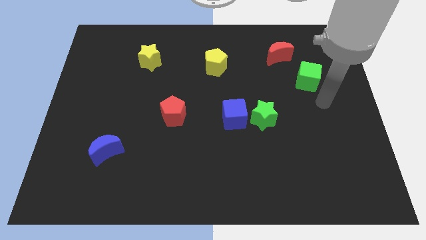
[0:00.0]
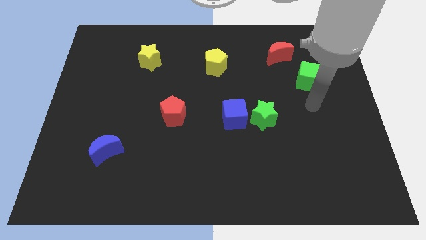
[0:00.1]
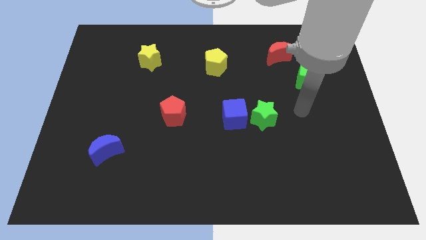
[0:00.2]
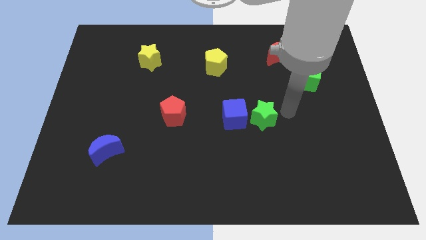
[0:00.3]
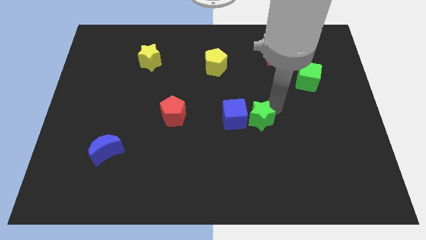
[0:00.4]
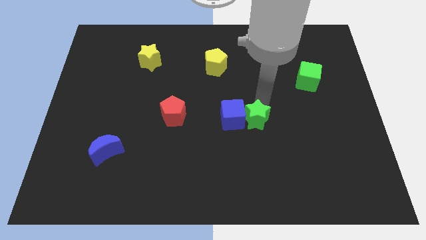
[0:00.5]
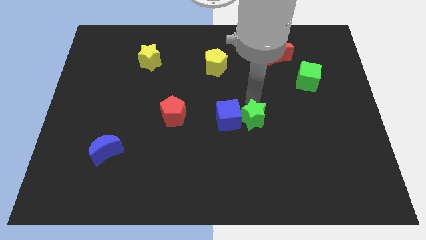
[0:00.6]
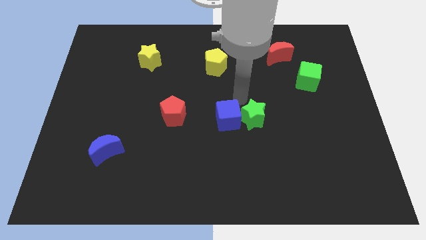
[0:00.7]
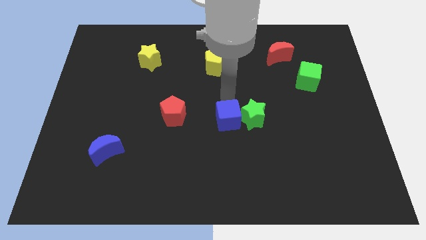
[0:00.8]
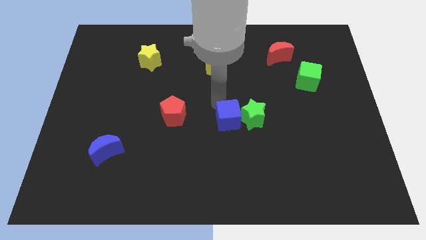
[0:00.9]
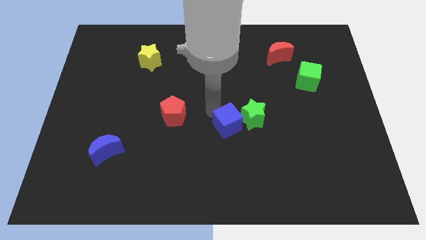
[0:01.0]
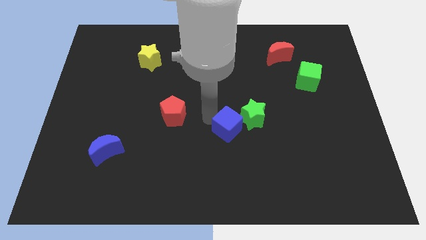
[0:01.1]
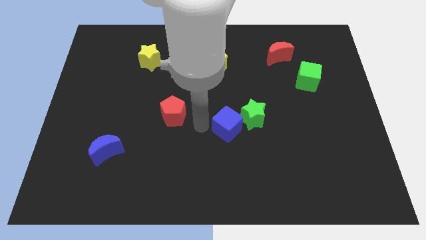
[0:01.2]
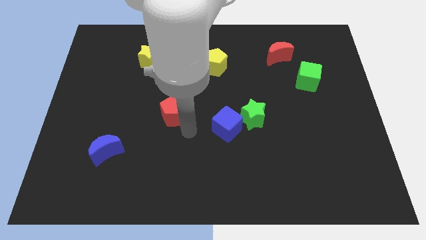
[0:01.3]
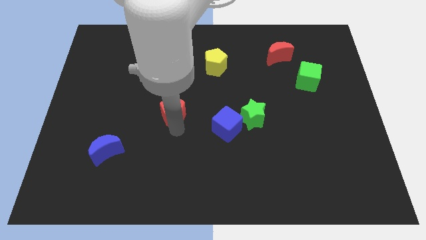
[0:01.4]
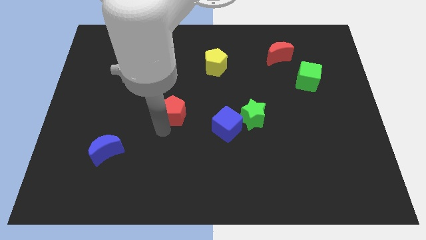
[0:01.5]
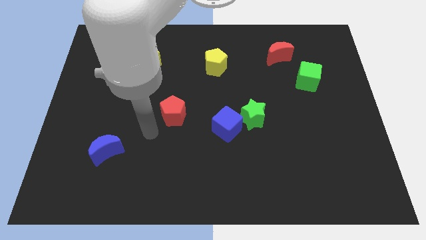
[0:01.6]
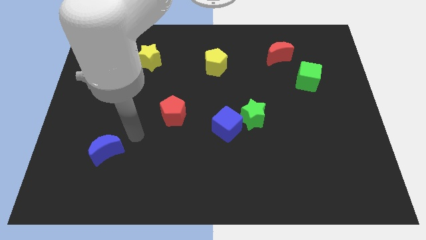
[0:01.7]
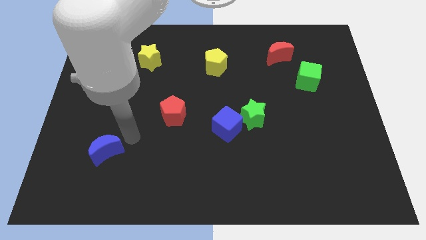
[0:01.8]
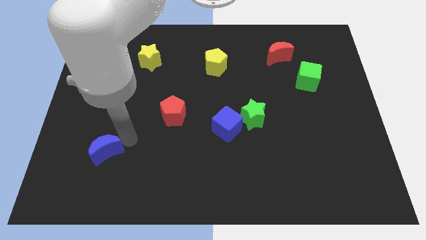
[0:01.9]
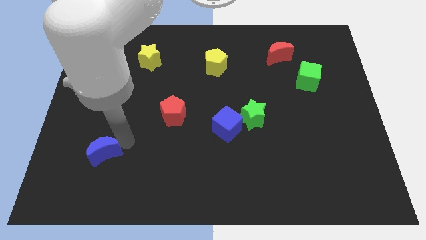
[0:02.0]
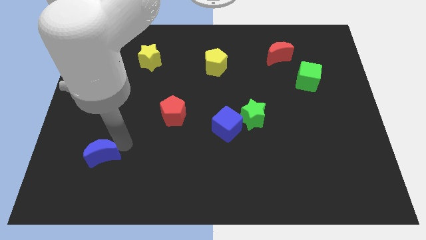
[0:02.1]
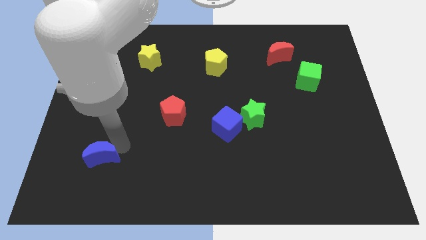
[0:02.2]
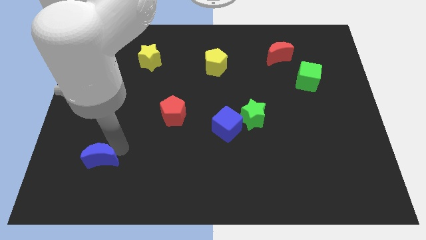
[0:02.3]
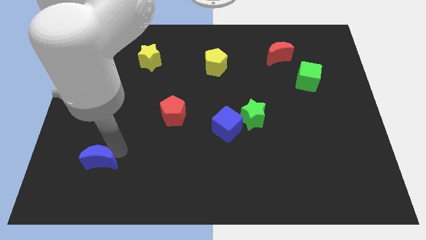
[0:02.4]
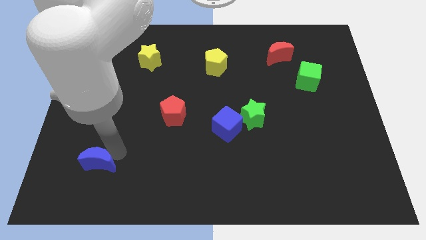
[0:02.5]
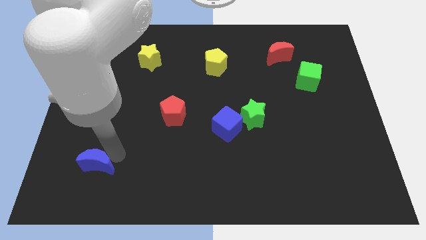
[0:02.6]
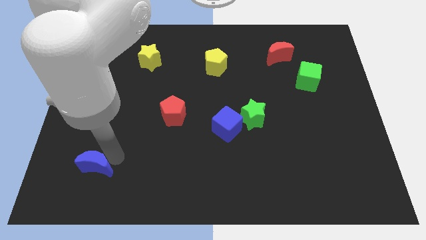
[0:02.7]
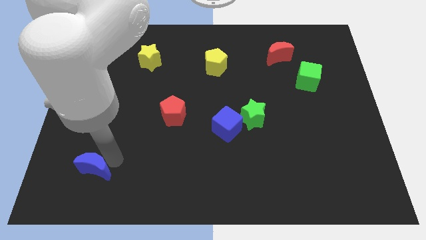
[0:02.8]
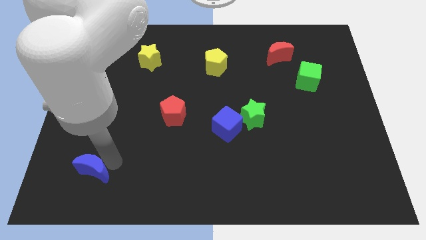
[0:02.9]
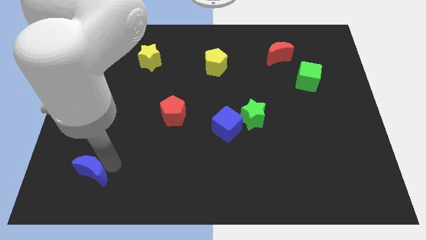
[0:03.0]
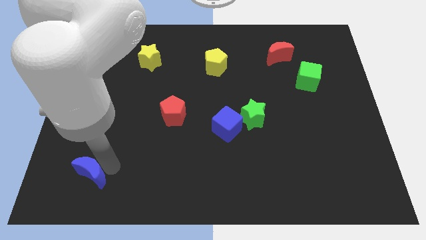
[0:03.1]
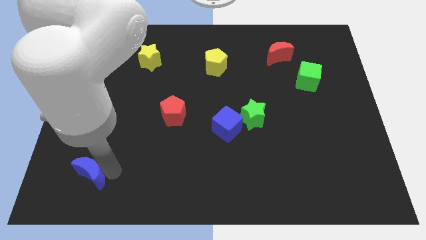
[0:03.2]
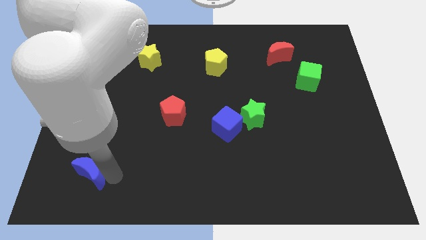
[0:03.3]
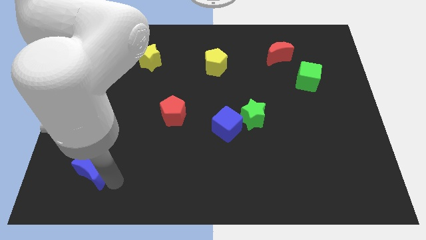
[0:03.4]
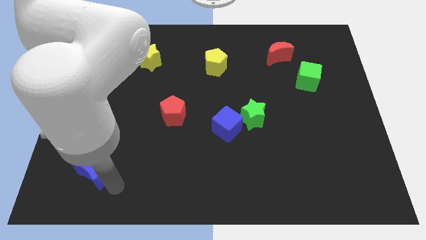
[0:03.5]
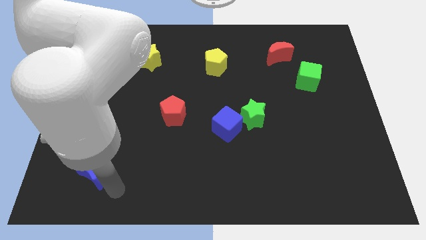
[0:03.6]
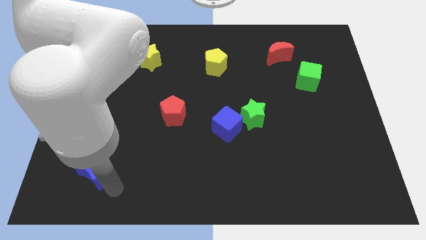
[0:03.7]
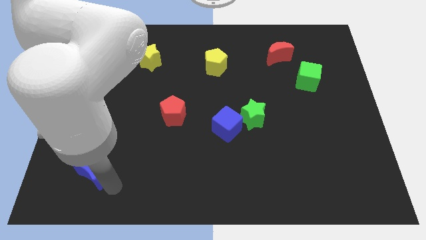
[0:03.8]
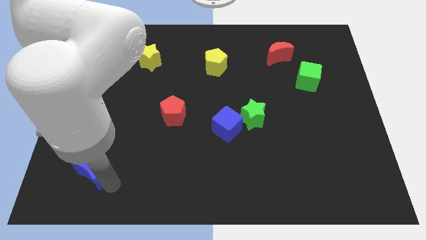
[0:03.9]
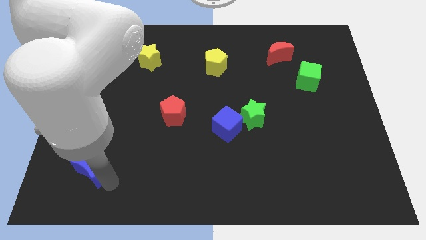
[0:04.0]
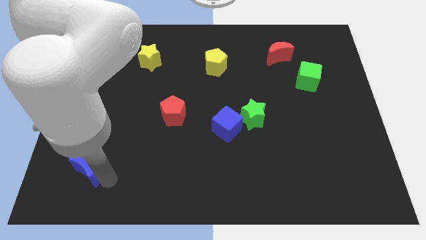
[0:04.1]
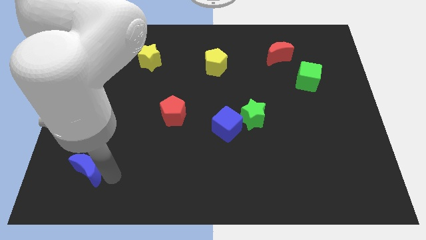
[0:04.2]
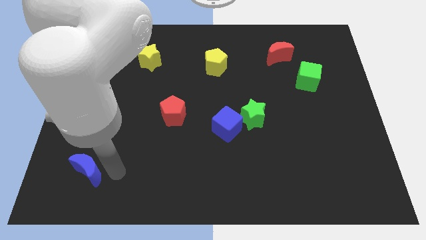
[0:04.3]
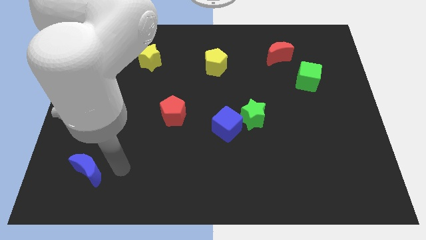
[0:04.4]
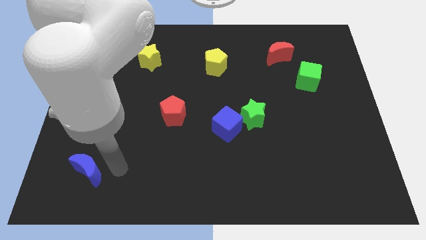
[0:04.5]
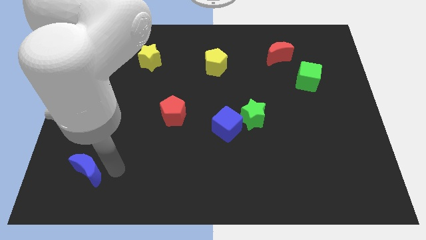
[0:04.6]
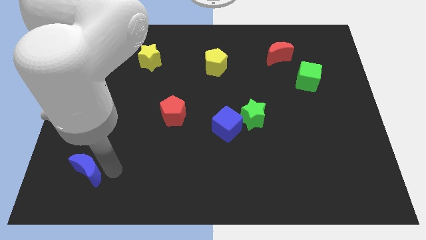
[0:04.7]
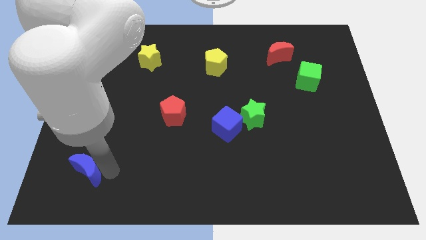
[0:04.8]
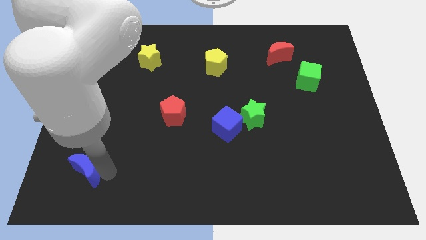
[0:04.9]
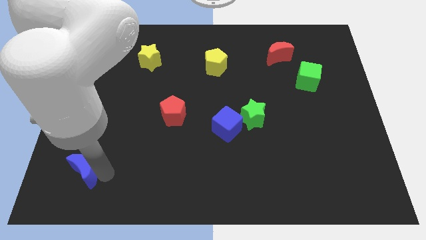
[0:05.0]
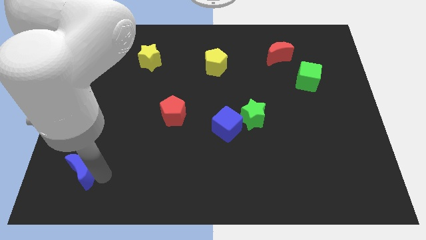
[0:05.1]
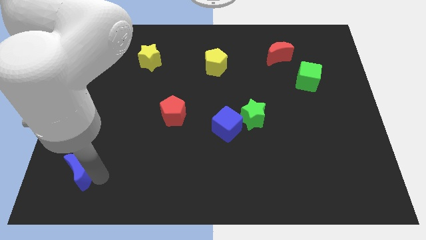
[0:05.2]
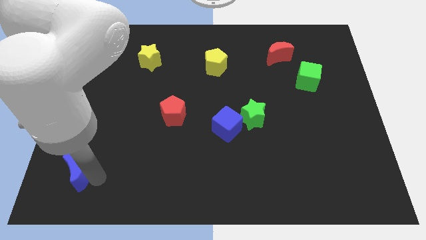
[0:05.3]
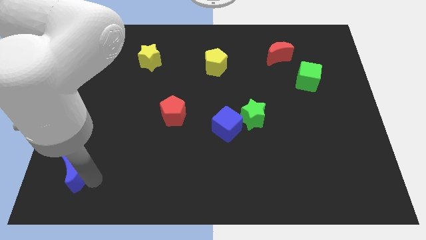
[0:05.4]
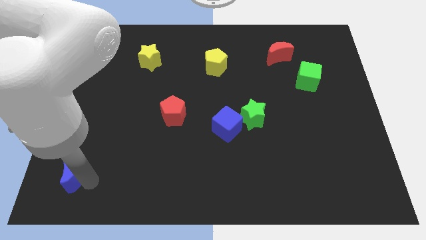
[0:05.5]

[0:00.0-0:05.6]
put the blue moon to the bottom left corner

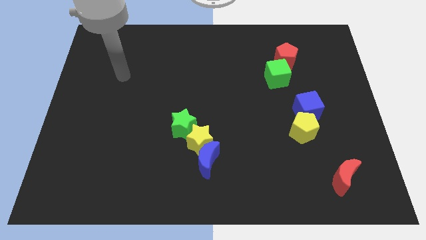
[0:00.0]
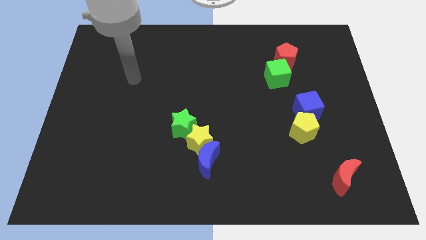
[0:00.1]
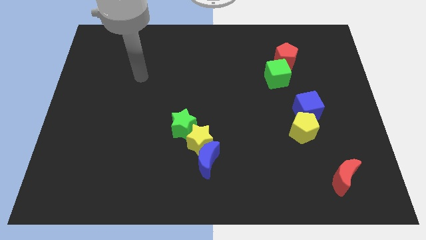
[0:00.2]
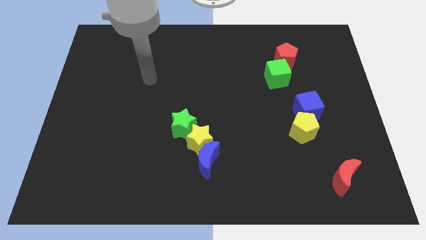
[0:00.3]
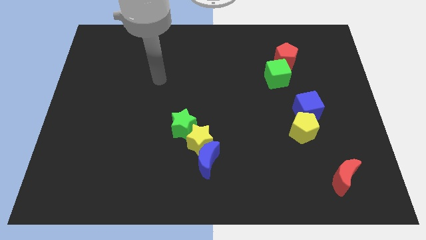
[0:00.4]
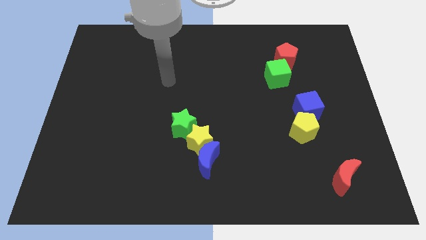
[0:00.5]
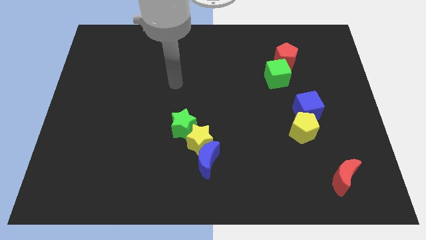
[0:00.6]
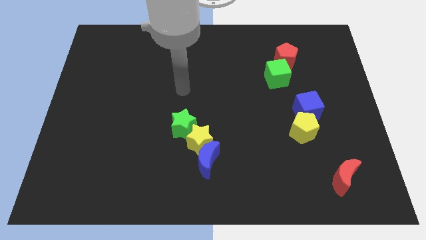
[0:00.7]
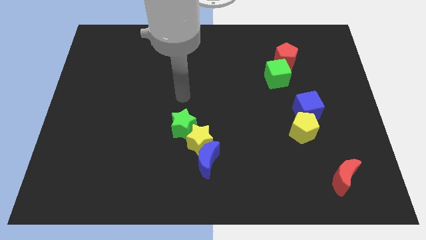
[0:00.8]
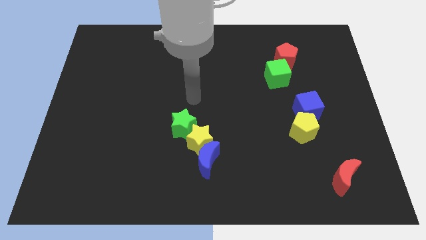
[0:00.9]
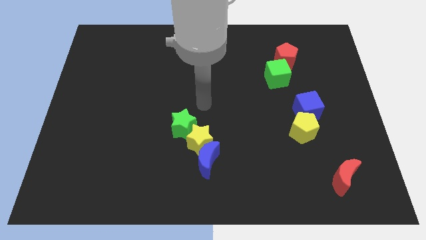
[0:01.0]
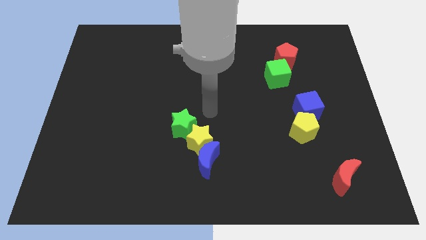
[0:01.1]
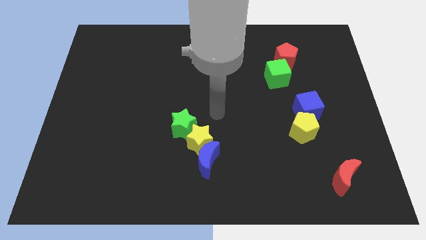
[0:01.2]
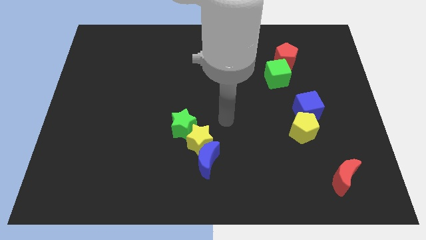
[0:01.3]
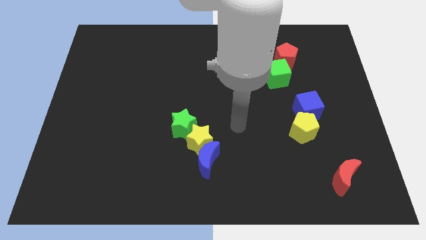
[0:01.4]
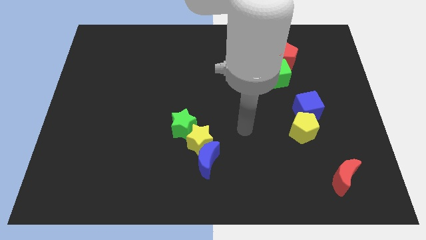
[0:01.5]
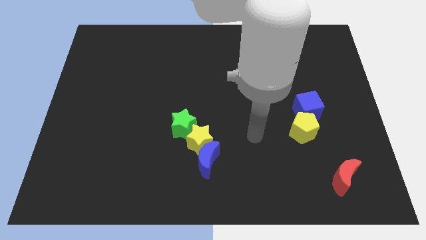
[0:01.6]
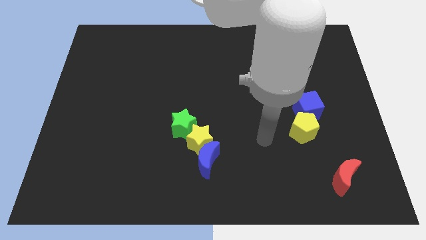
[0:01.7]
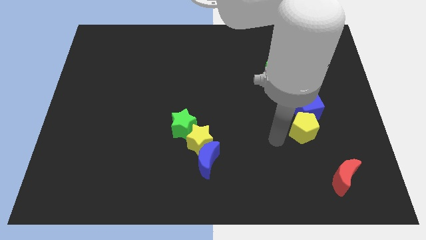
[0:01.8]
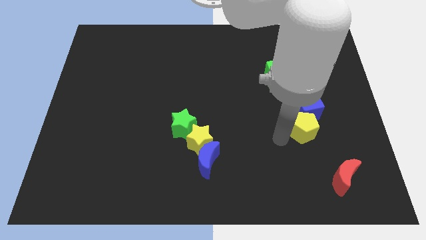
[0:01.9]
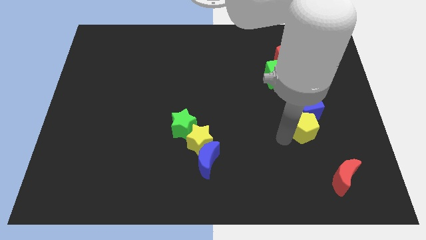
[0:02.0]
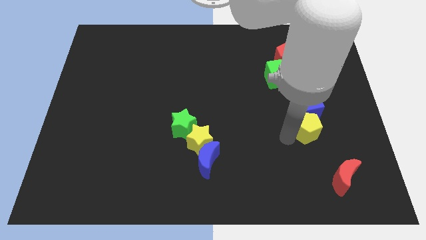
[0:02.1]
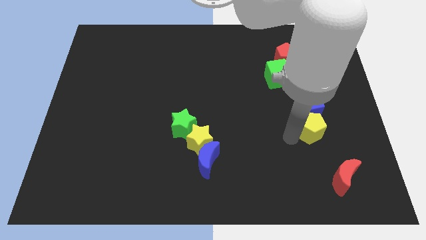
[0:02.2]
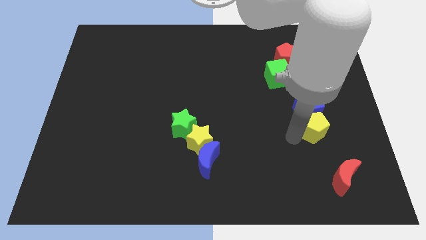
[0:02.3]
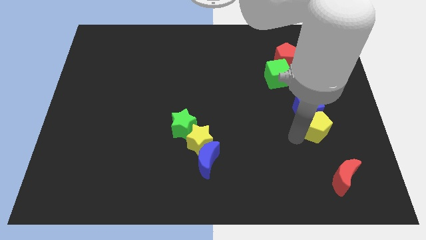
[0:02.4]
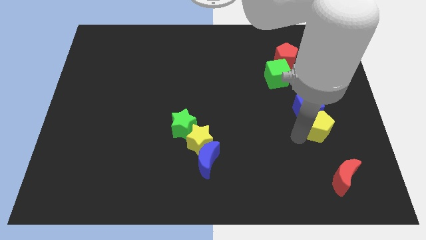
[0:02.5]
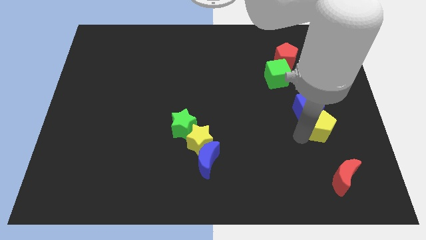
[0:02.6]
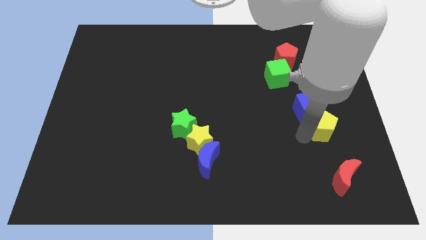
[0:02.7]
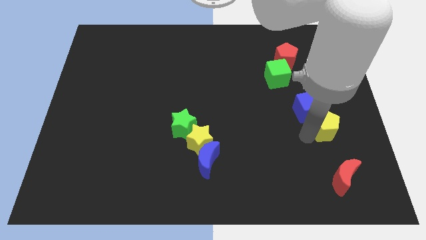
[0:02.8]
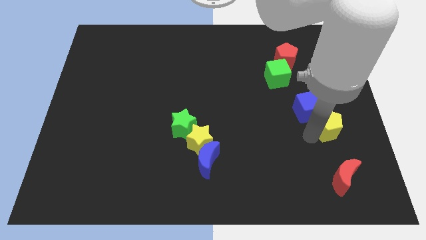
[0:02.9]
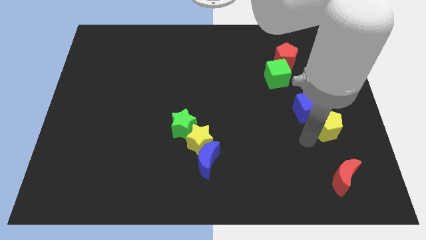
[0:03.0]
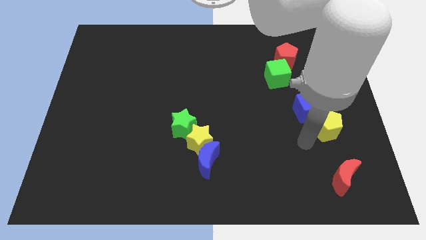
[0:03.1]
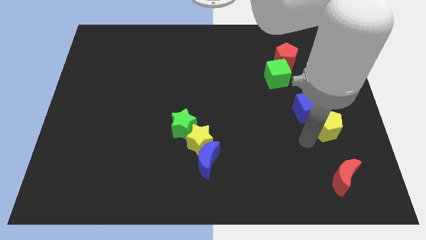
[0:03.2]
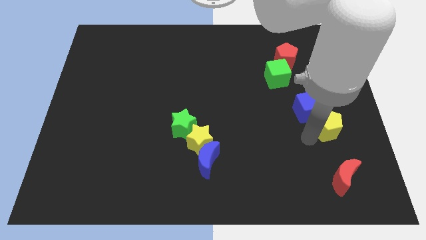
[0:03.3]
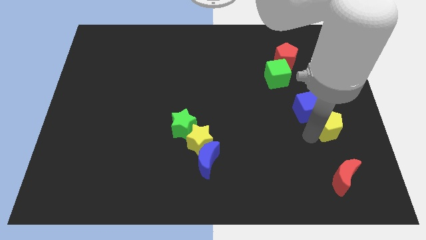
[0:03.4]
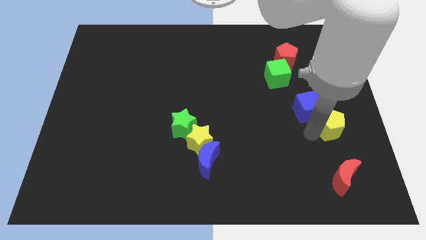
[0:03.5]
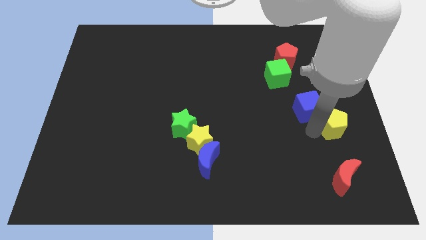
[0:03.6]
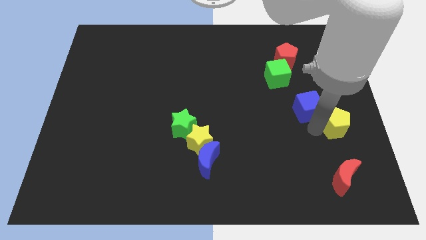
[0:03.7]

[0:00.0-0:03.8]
put the yellow pentagon to the center right
